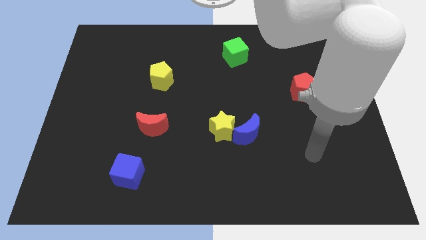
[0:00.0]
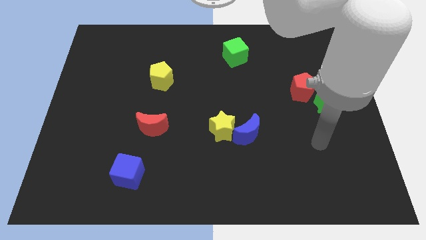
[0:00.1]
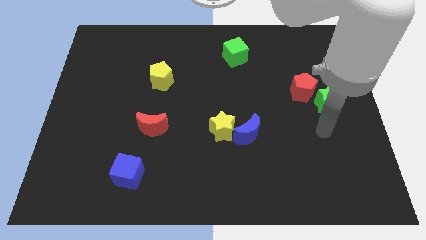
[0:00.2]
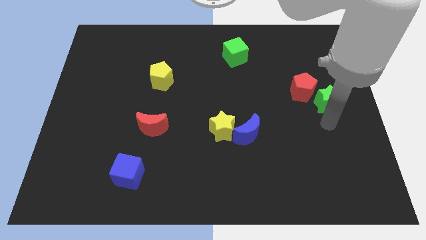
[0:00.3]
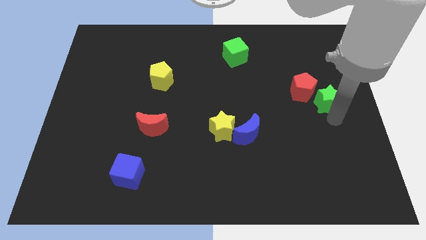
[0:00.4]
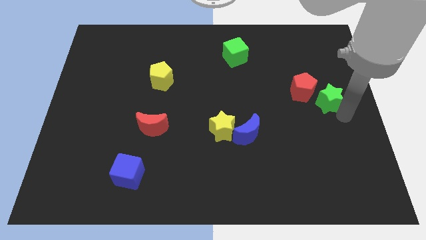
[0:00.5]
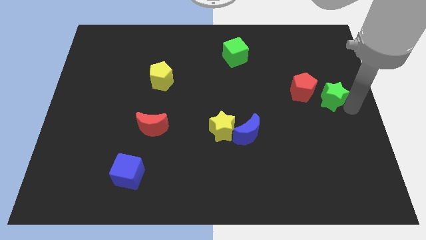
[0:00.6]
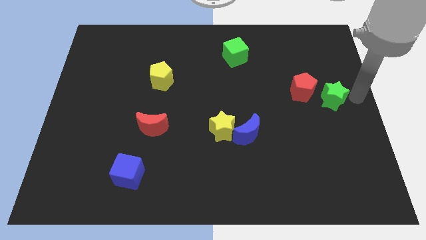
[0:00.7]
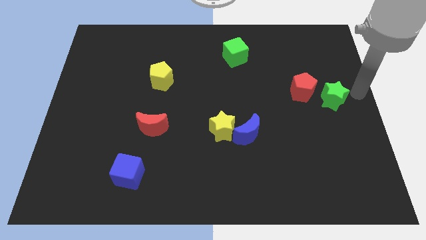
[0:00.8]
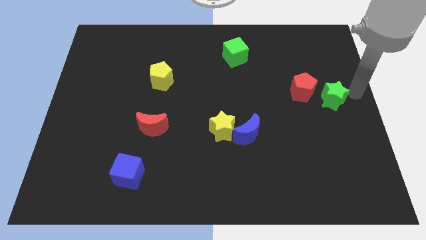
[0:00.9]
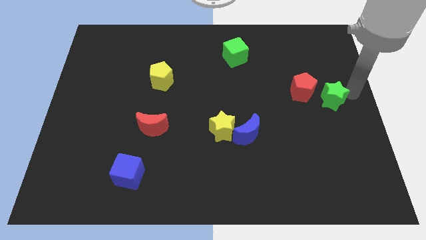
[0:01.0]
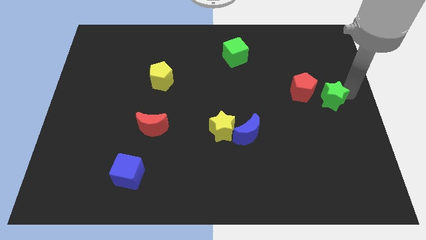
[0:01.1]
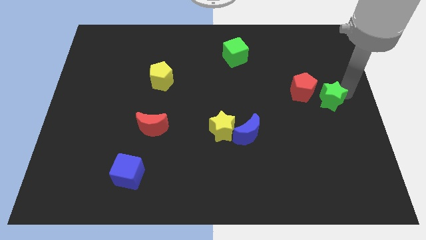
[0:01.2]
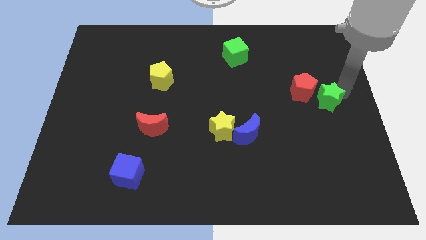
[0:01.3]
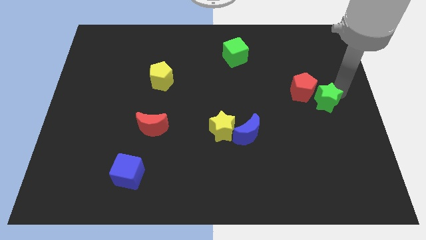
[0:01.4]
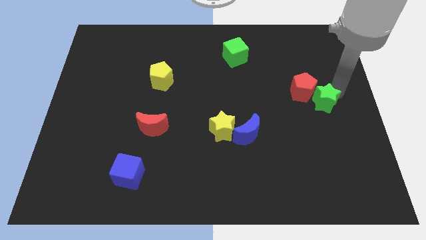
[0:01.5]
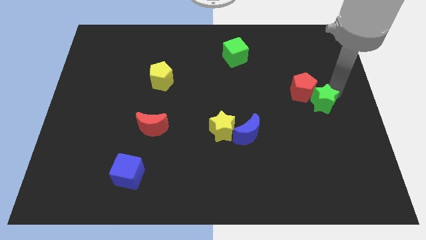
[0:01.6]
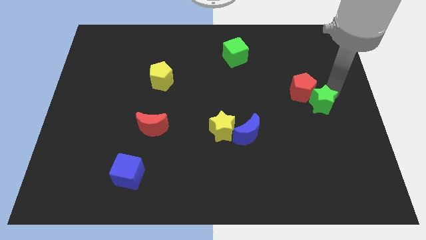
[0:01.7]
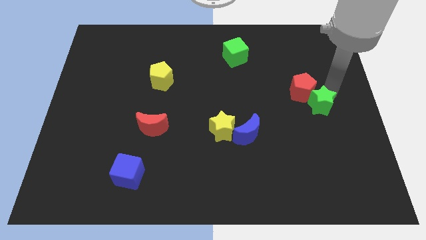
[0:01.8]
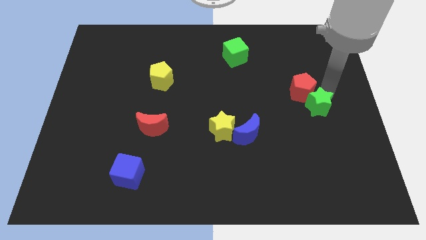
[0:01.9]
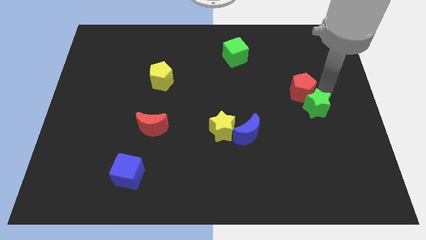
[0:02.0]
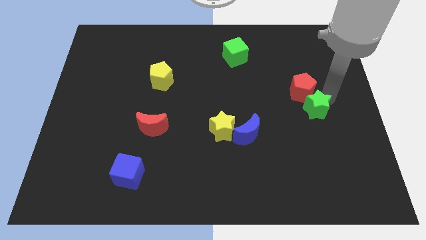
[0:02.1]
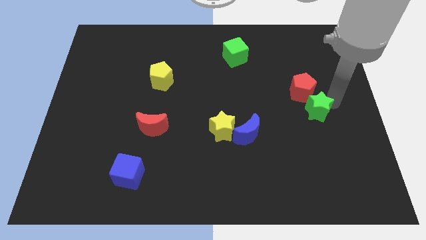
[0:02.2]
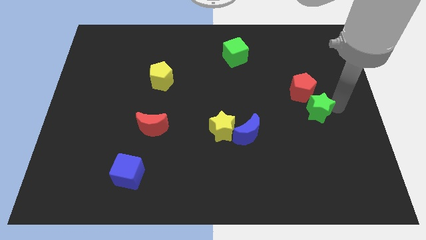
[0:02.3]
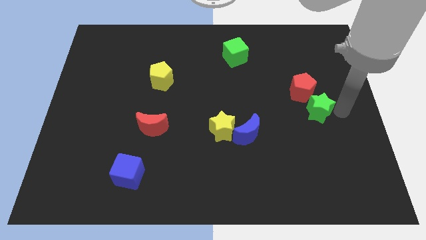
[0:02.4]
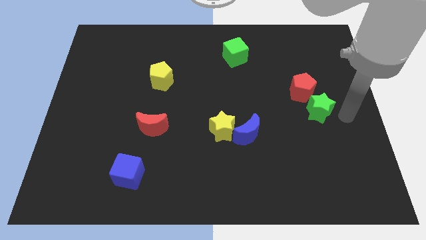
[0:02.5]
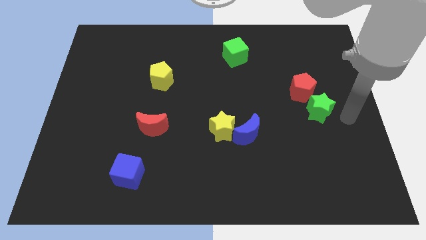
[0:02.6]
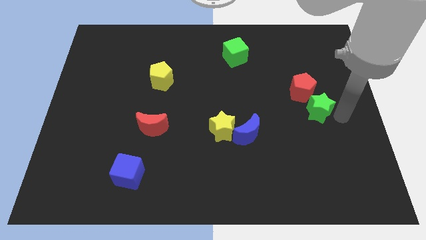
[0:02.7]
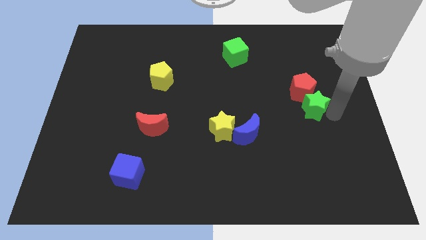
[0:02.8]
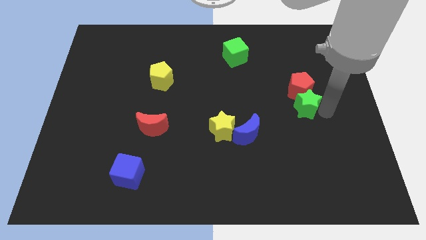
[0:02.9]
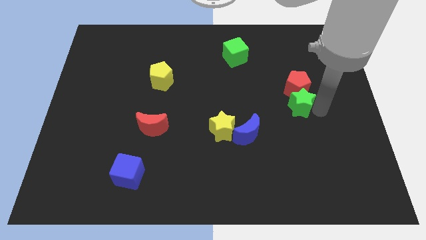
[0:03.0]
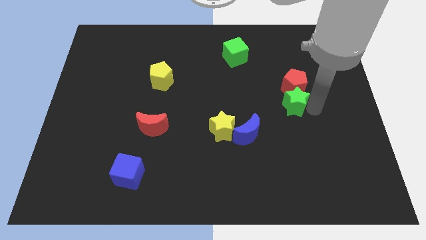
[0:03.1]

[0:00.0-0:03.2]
push the green star somewhat left

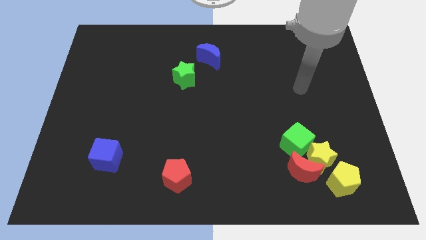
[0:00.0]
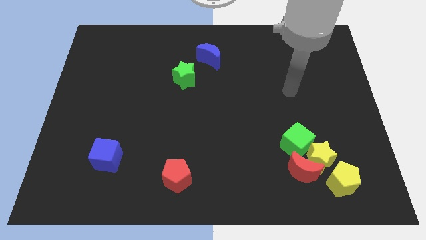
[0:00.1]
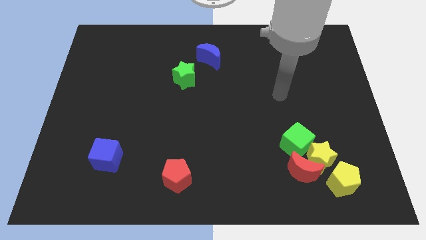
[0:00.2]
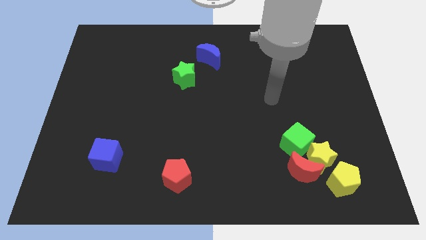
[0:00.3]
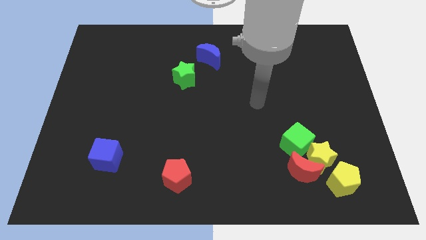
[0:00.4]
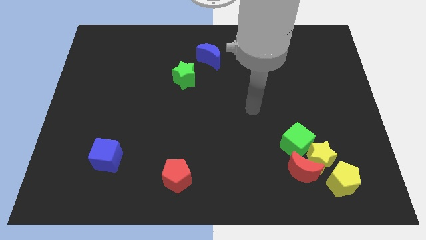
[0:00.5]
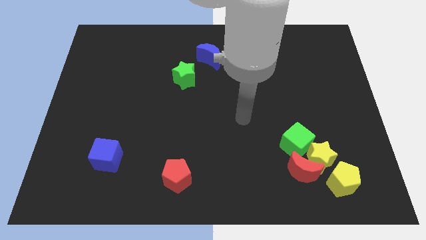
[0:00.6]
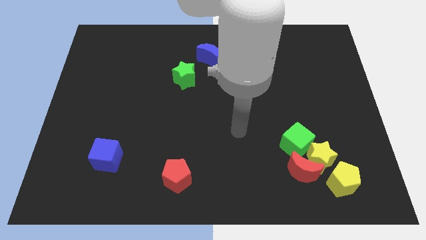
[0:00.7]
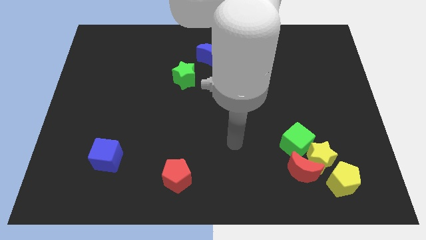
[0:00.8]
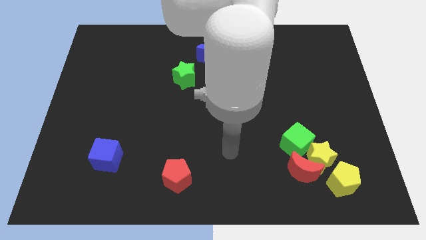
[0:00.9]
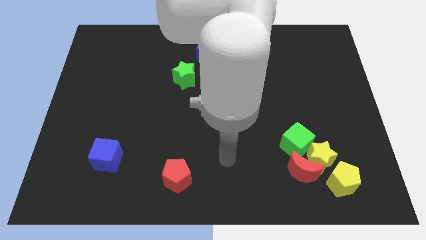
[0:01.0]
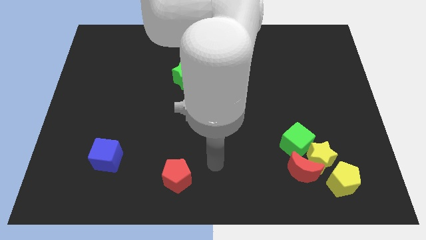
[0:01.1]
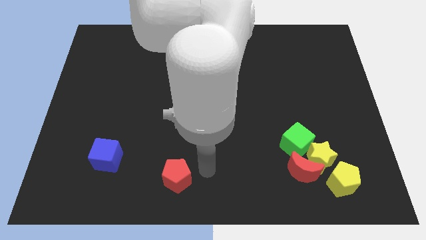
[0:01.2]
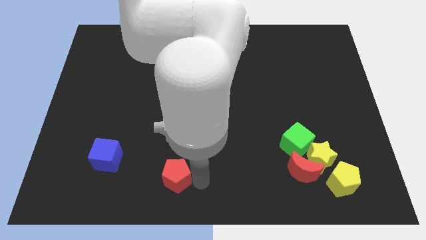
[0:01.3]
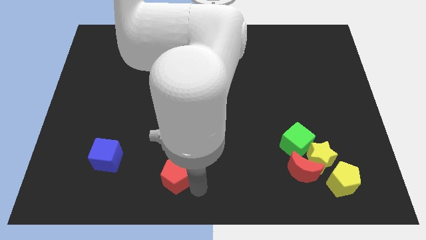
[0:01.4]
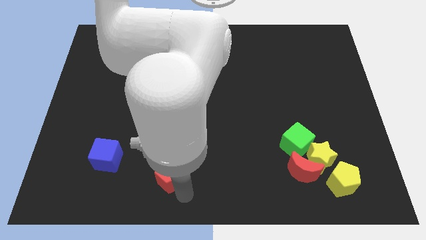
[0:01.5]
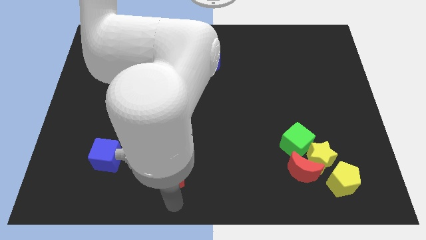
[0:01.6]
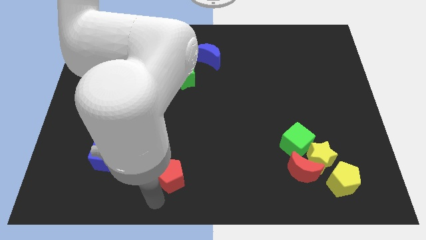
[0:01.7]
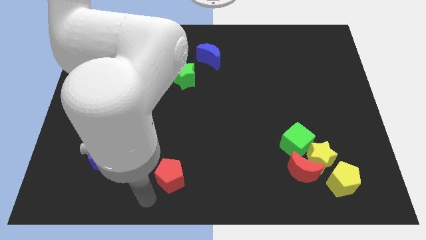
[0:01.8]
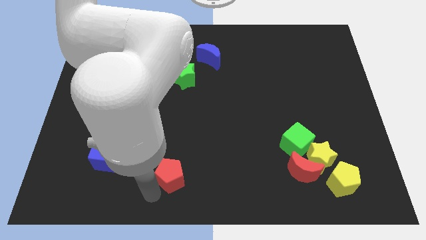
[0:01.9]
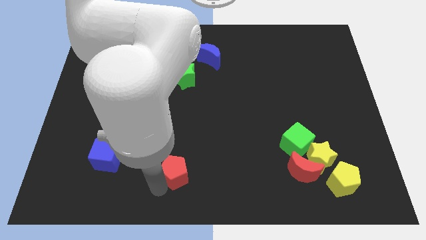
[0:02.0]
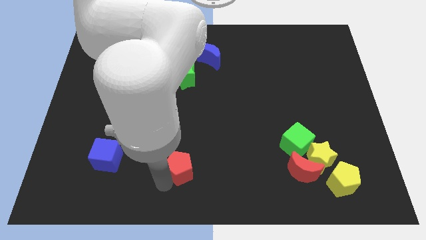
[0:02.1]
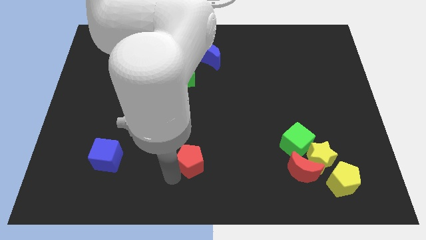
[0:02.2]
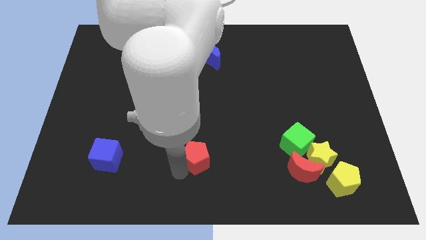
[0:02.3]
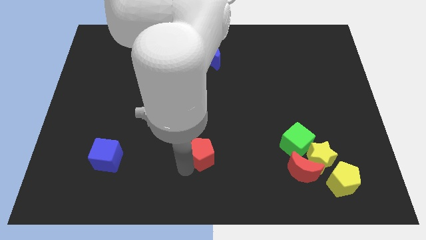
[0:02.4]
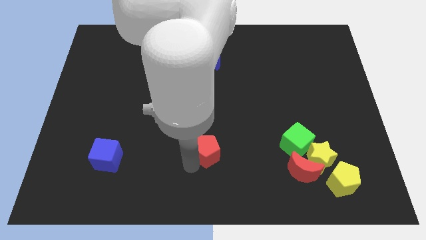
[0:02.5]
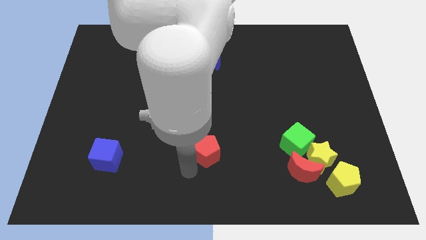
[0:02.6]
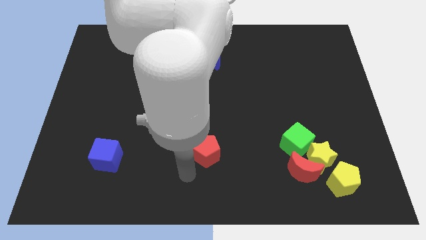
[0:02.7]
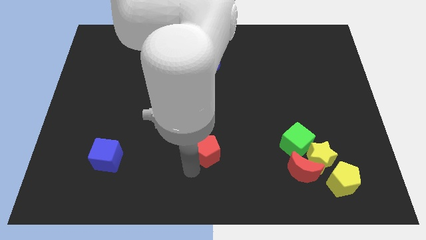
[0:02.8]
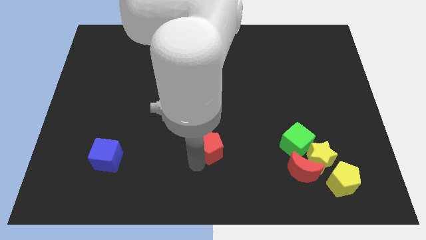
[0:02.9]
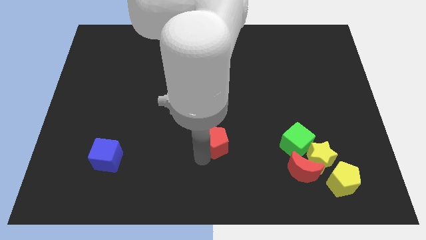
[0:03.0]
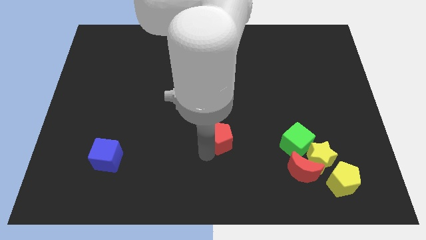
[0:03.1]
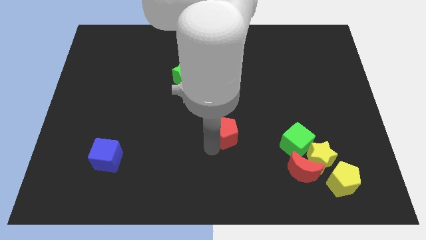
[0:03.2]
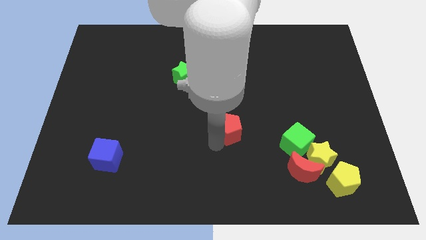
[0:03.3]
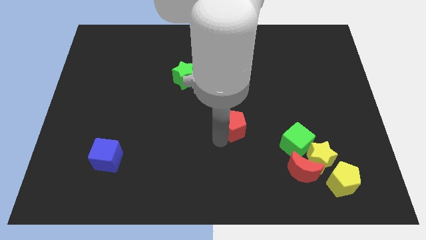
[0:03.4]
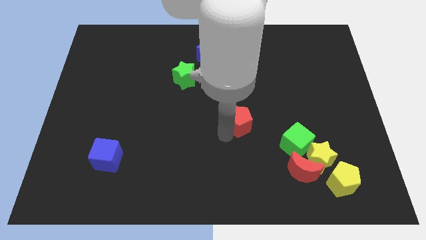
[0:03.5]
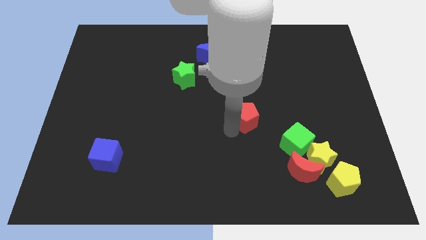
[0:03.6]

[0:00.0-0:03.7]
slide the red pentagon upwards and to the right

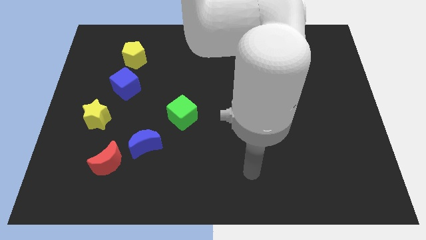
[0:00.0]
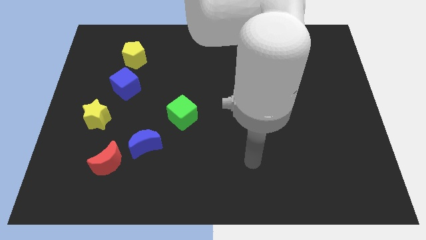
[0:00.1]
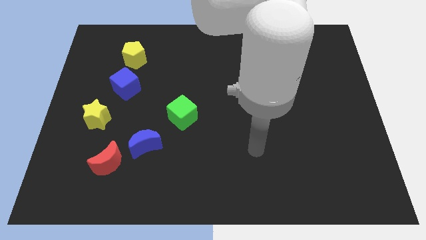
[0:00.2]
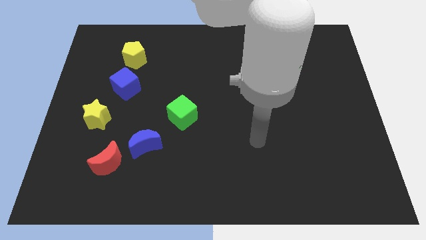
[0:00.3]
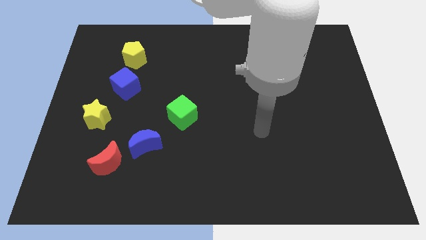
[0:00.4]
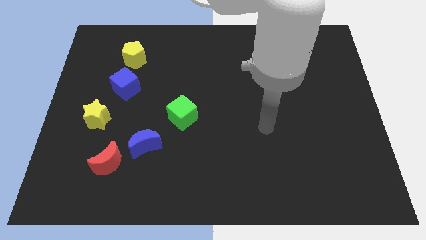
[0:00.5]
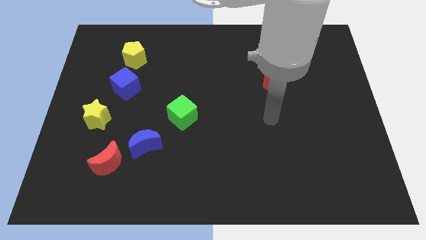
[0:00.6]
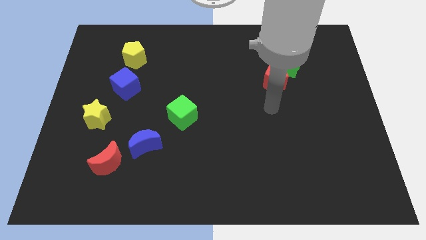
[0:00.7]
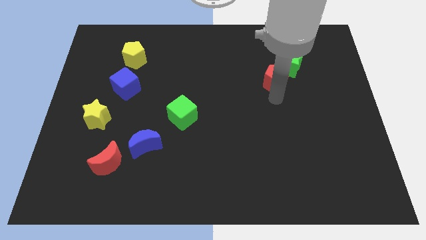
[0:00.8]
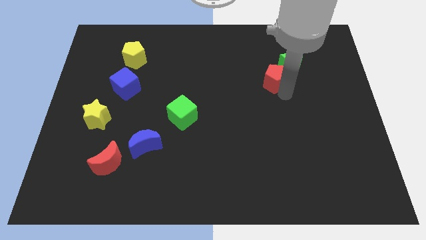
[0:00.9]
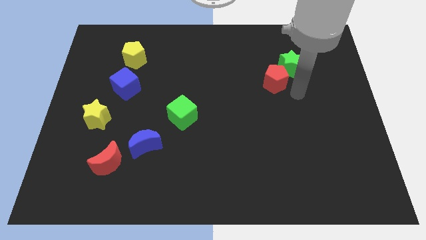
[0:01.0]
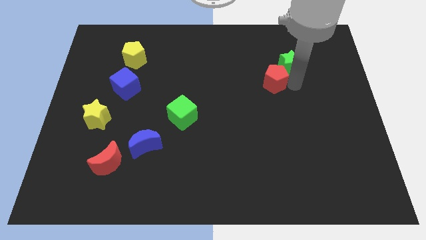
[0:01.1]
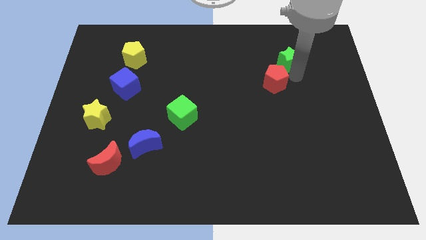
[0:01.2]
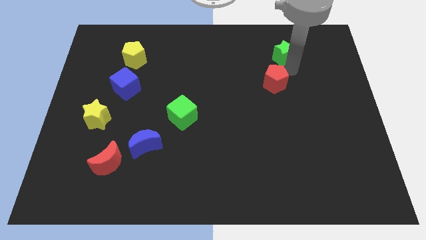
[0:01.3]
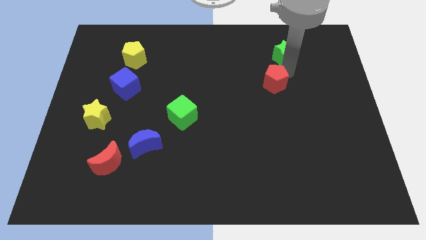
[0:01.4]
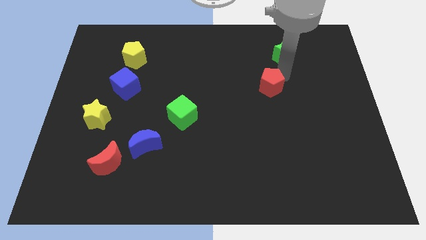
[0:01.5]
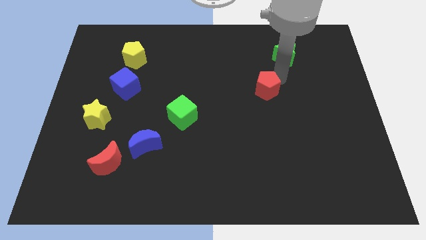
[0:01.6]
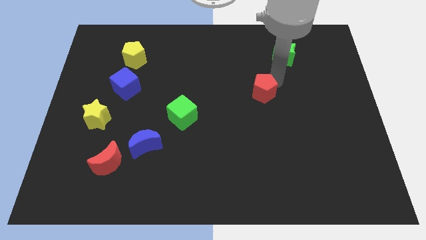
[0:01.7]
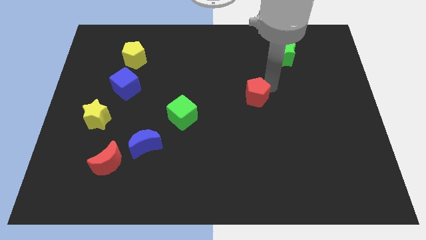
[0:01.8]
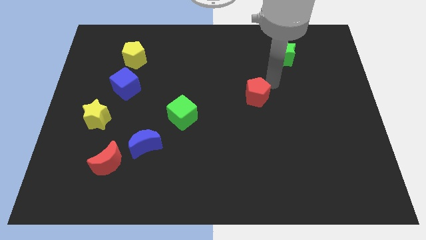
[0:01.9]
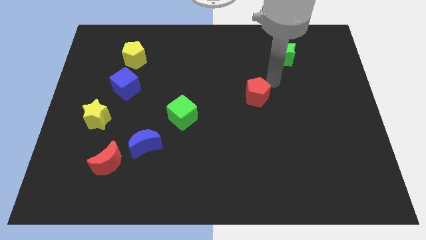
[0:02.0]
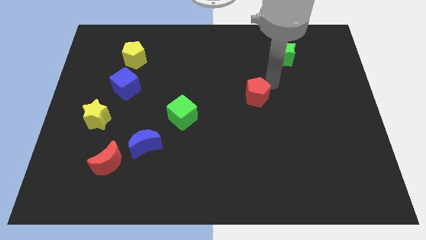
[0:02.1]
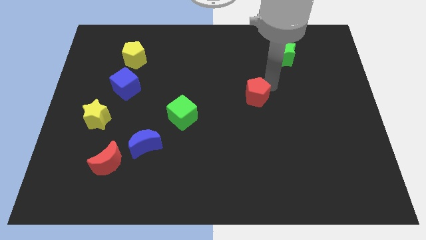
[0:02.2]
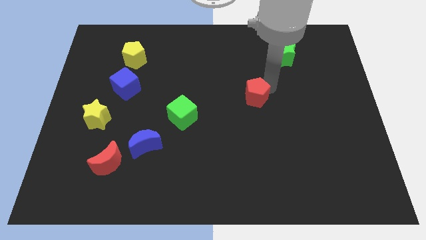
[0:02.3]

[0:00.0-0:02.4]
move the red pentagon a bit diagonally downwards and left
